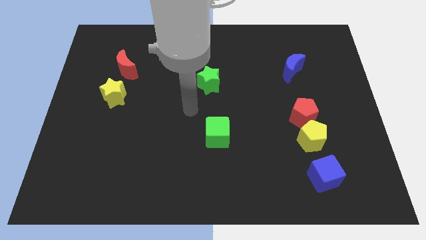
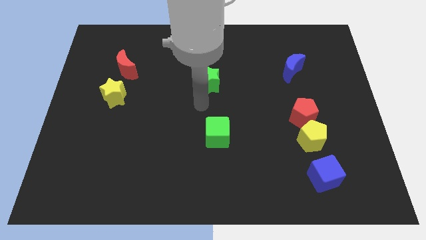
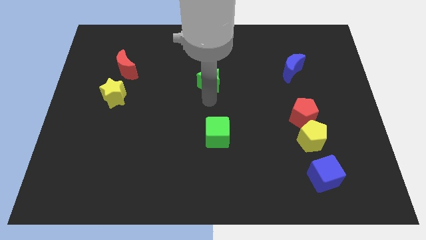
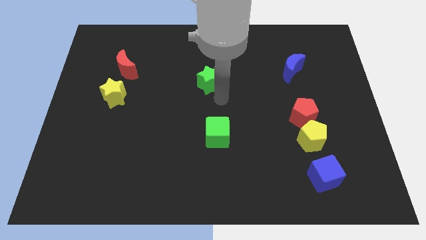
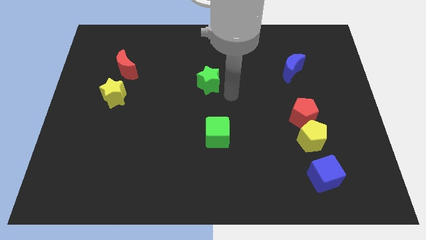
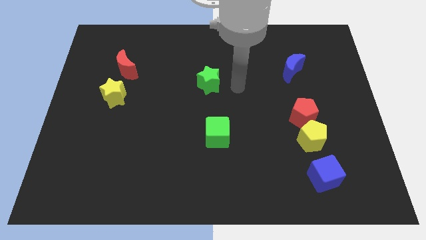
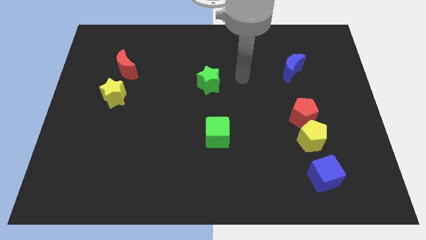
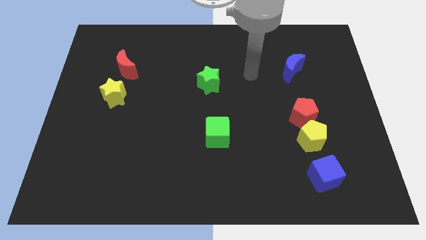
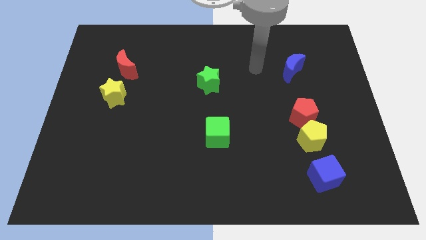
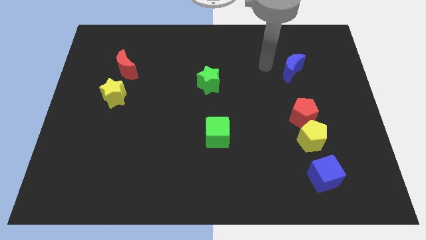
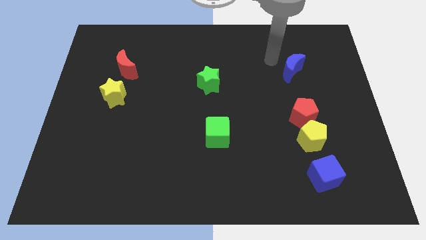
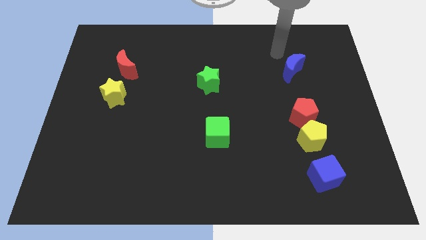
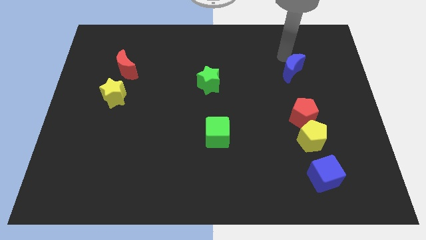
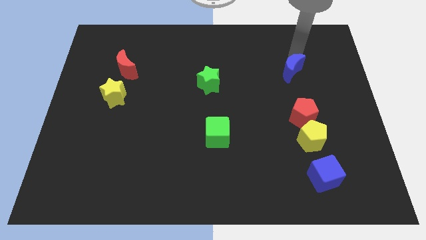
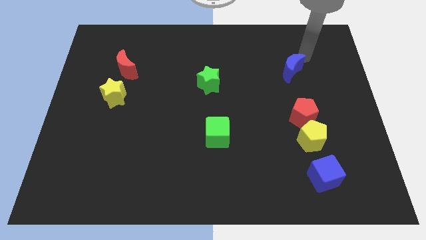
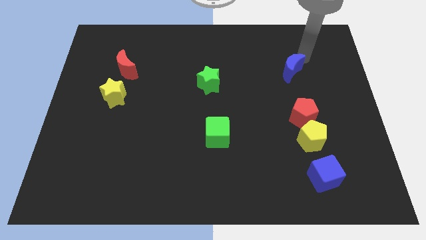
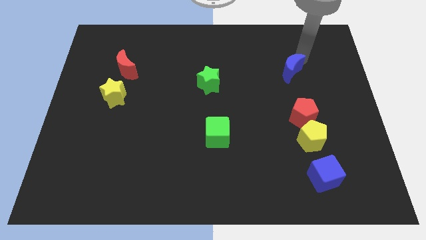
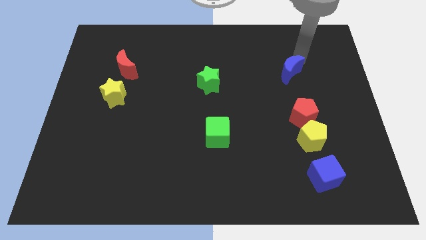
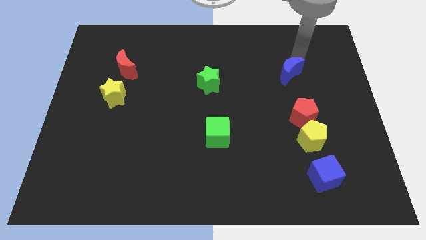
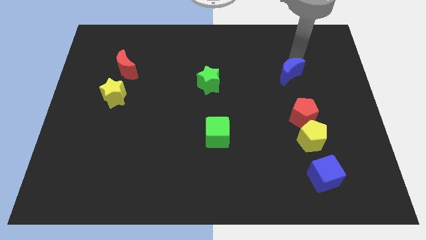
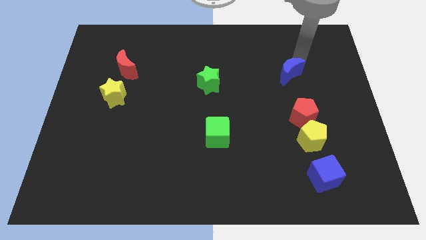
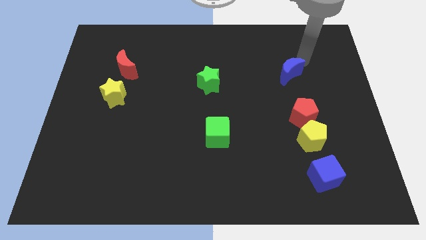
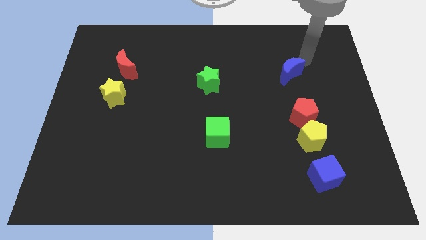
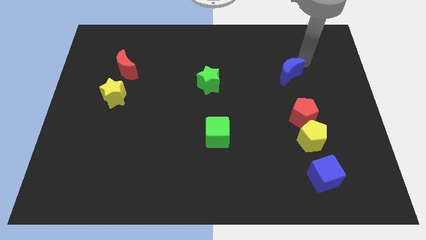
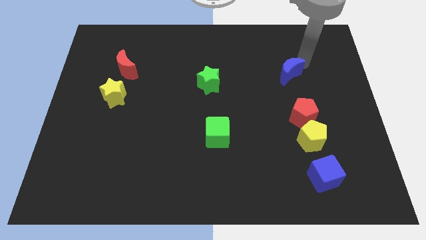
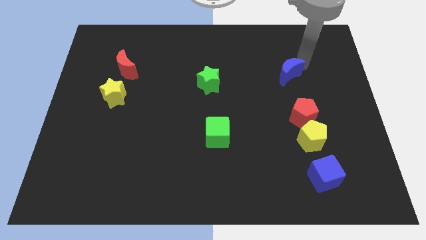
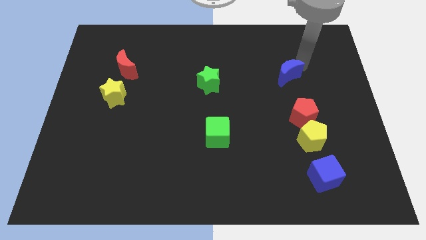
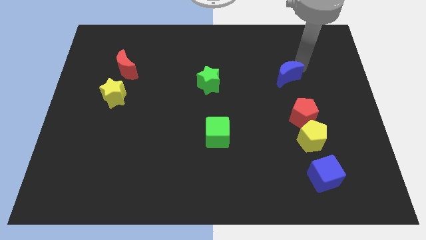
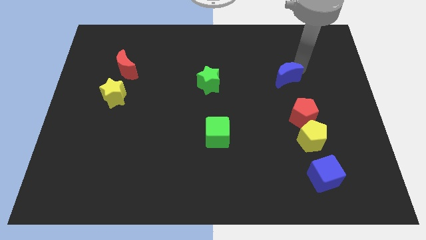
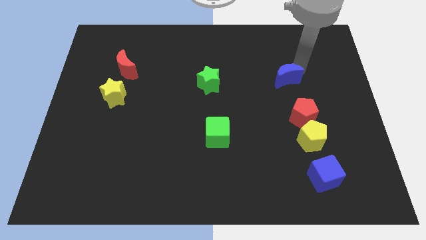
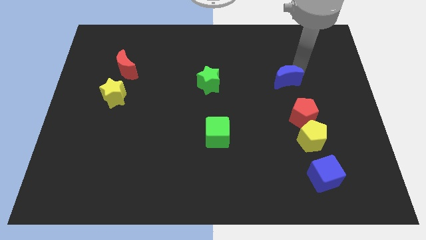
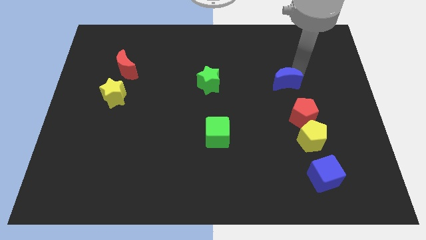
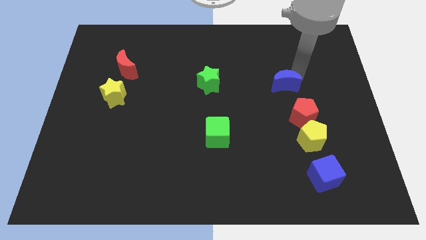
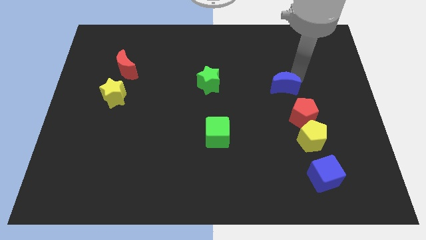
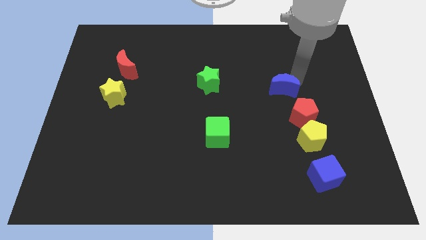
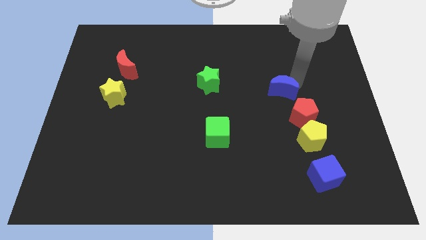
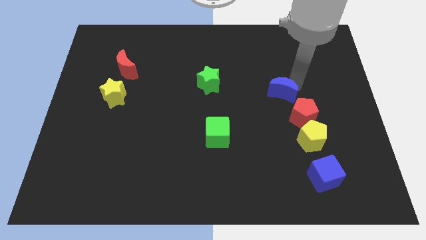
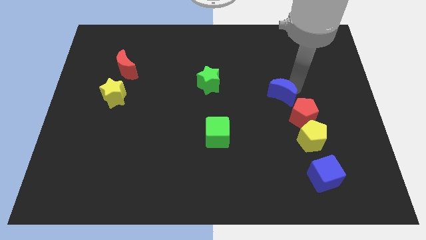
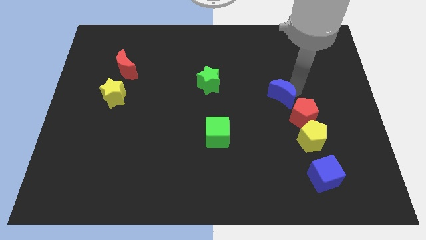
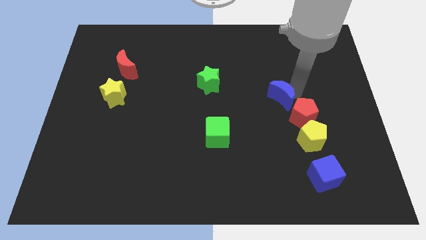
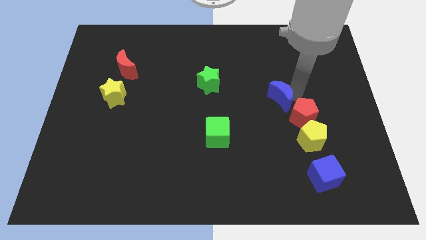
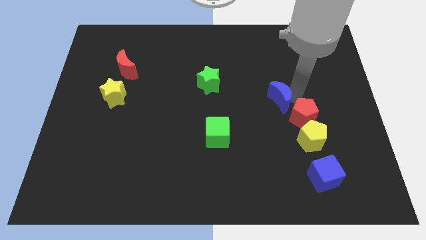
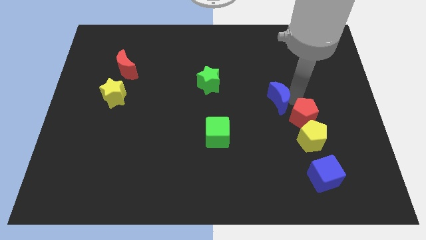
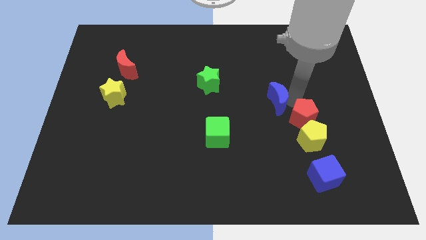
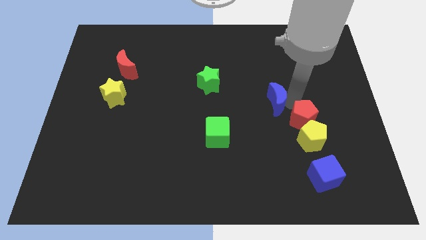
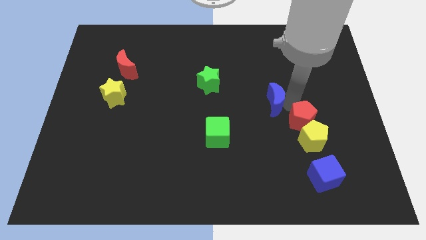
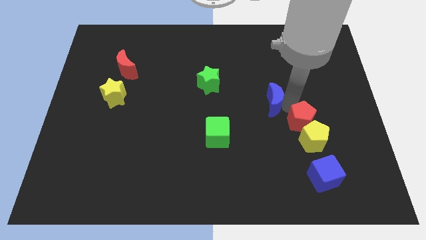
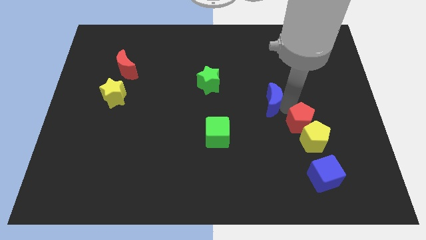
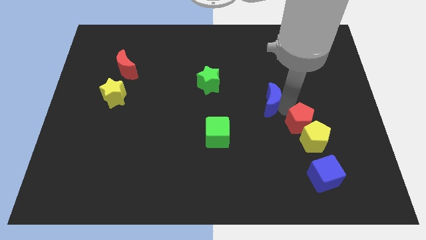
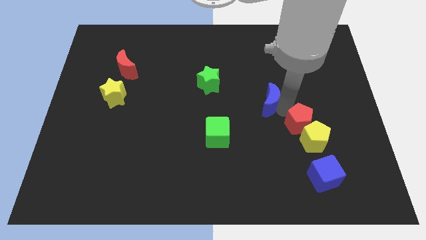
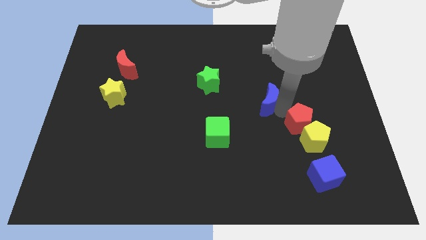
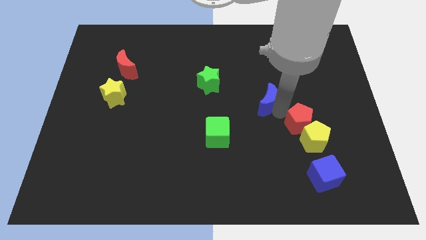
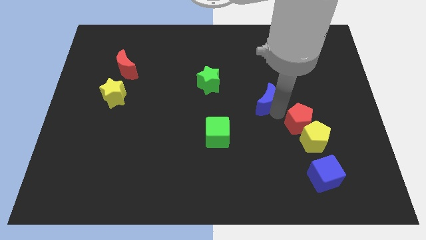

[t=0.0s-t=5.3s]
put the blue moon to the middle

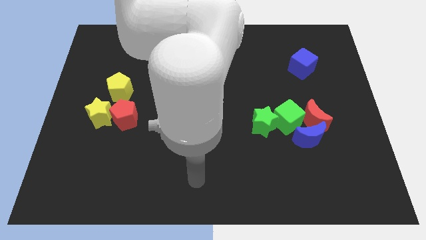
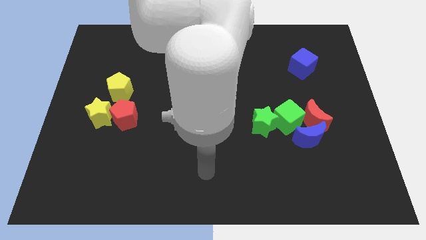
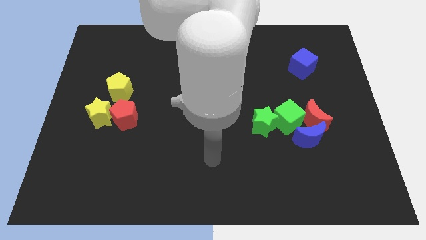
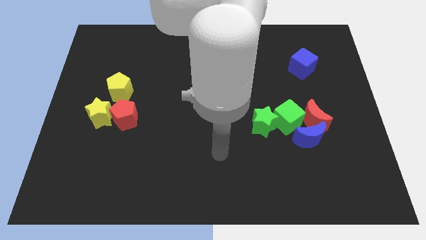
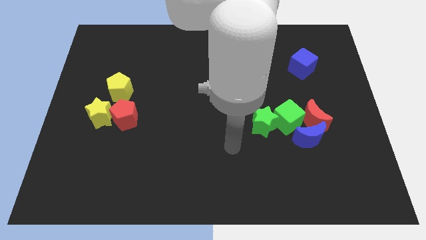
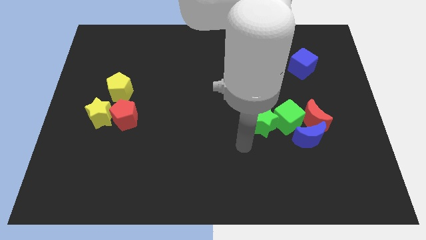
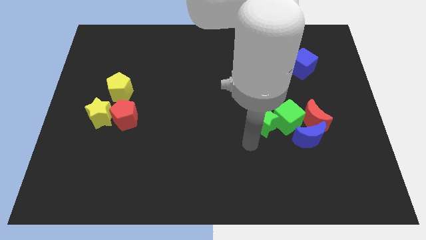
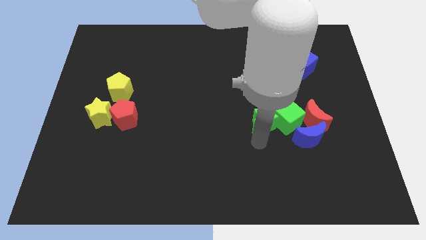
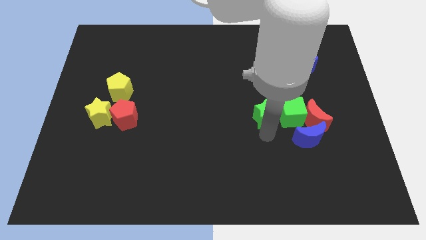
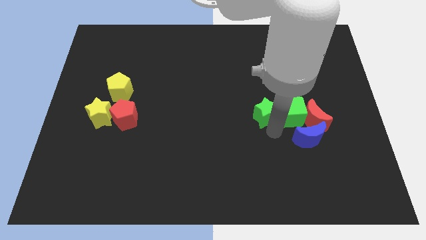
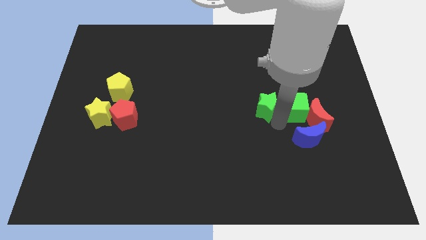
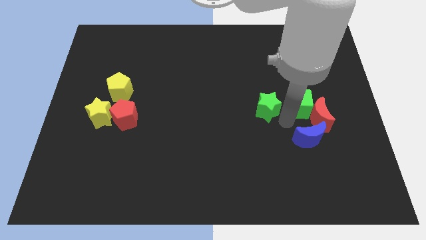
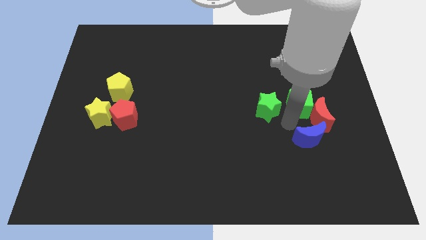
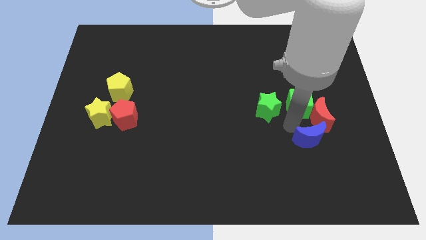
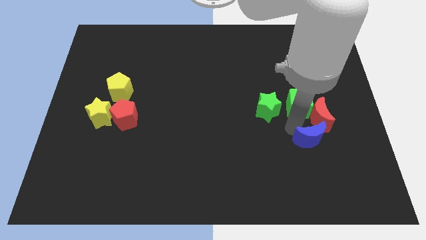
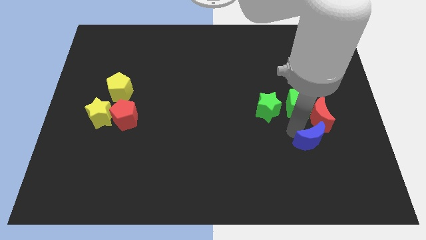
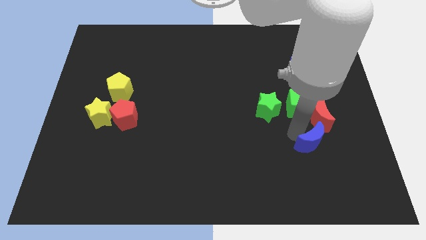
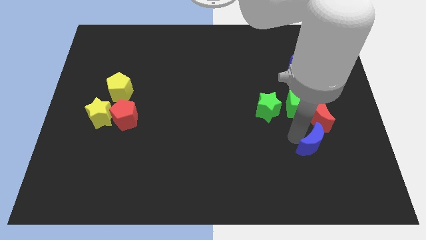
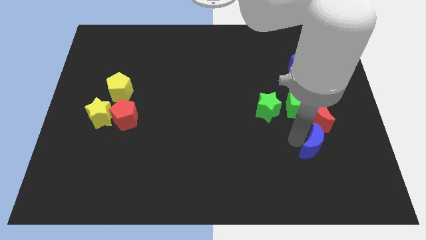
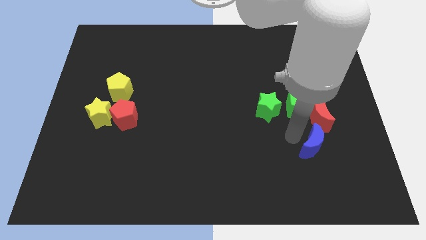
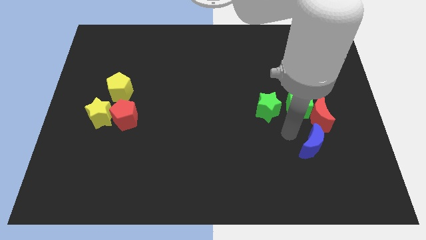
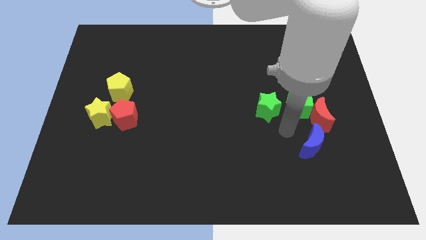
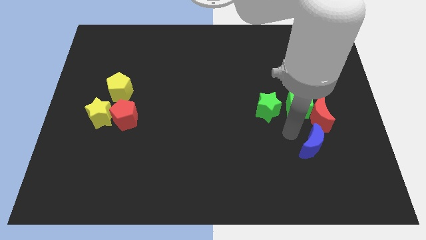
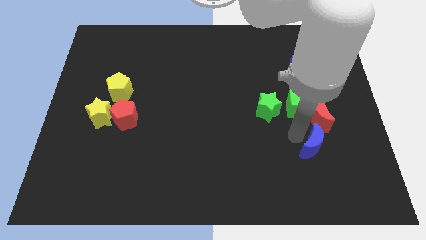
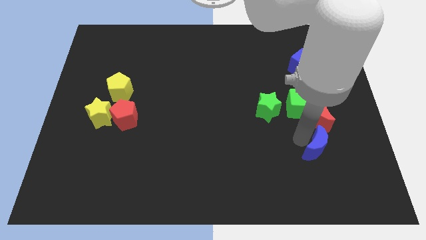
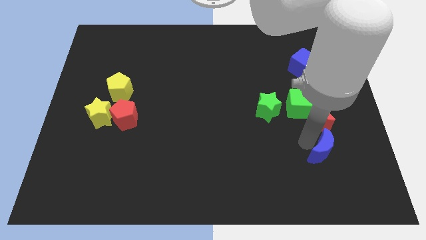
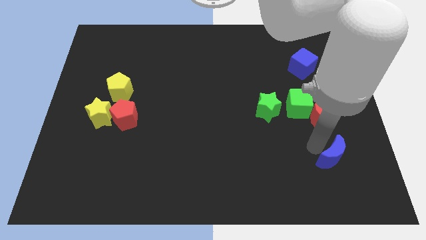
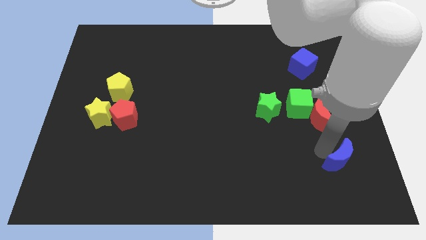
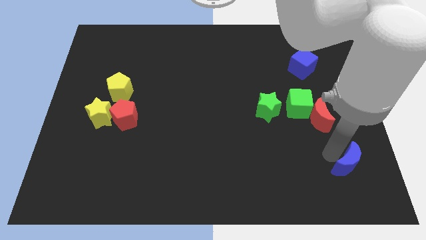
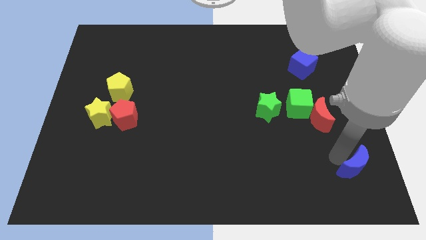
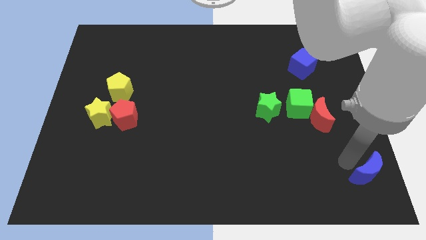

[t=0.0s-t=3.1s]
put the blue moon to the bottom right corner
